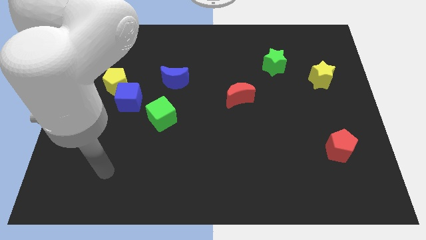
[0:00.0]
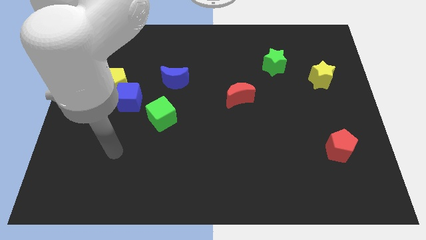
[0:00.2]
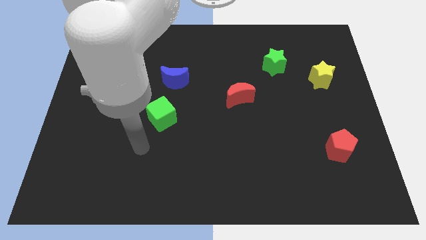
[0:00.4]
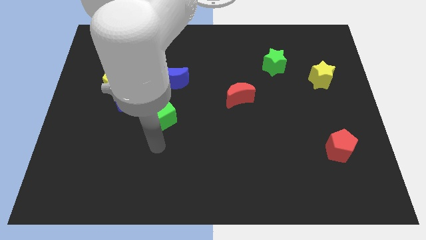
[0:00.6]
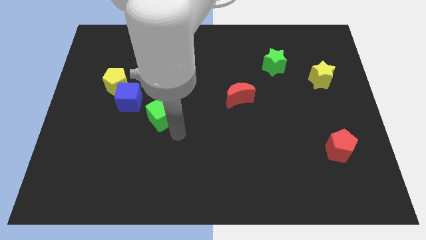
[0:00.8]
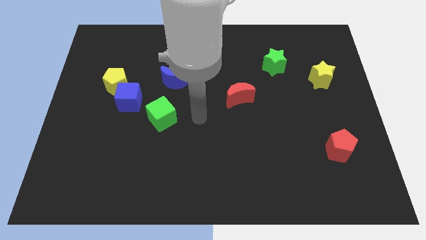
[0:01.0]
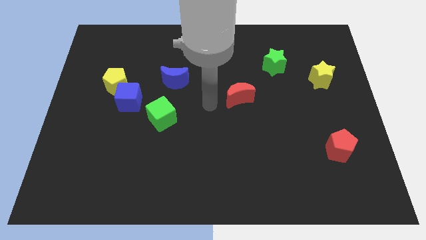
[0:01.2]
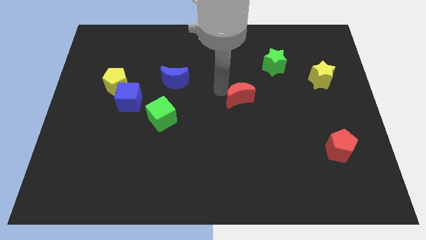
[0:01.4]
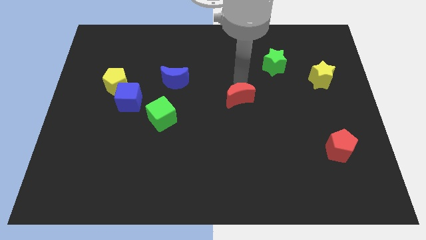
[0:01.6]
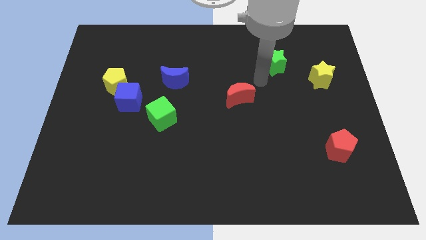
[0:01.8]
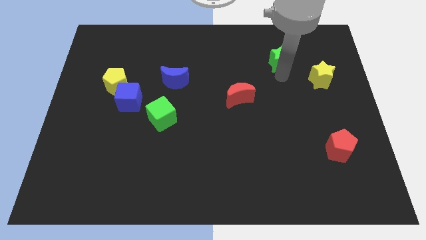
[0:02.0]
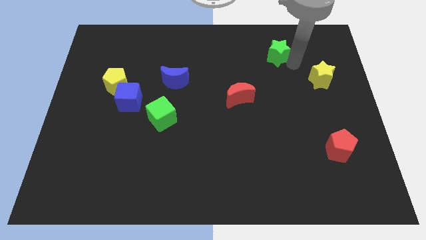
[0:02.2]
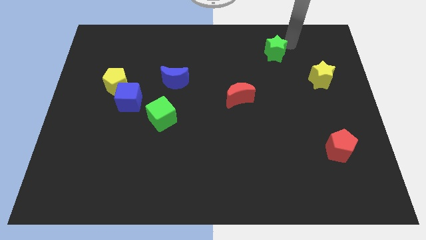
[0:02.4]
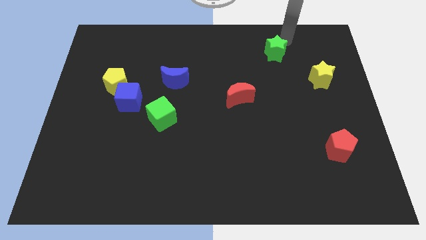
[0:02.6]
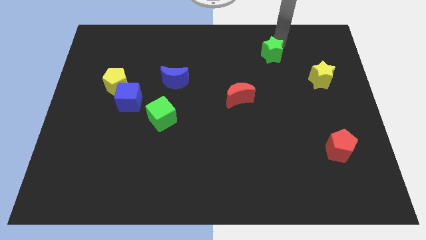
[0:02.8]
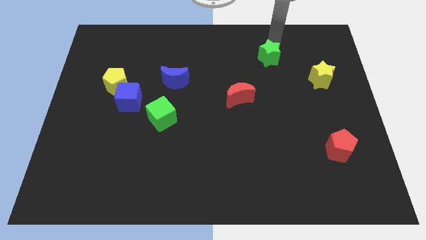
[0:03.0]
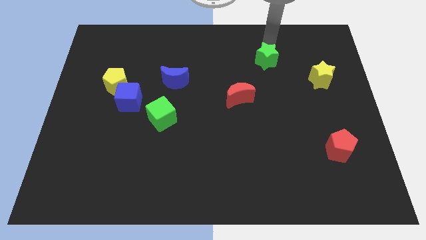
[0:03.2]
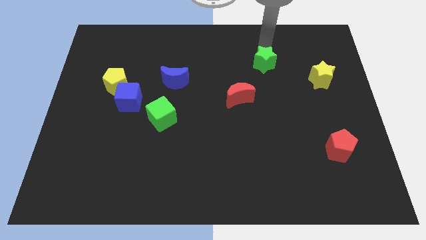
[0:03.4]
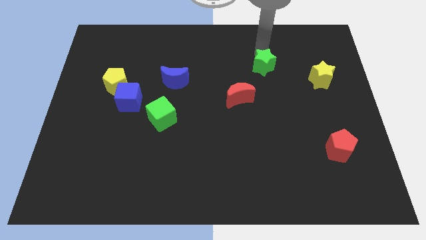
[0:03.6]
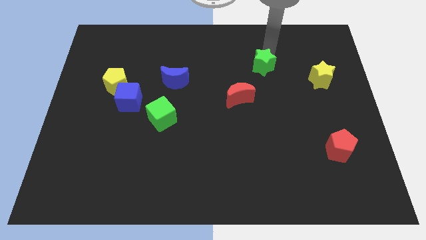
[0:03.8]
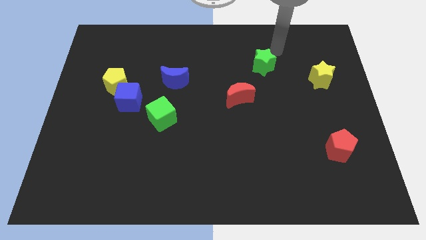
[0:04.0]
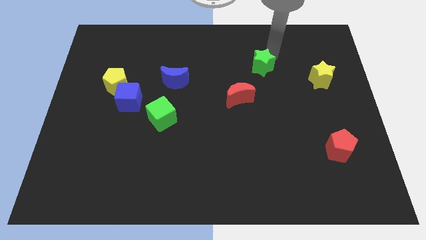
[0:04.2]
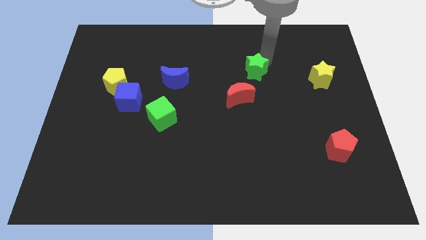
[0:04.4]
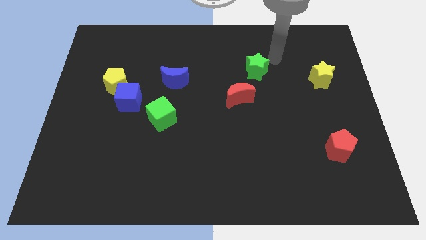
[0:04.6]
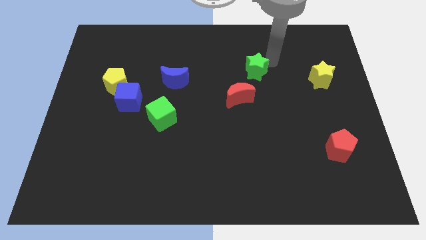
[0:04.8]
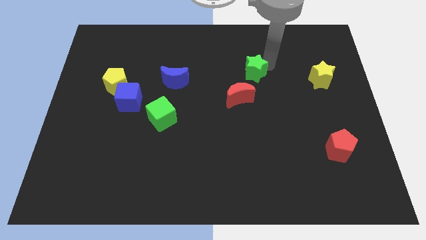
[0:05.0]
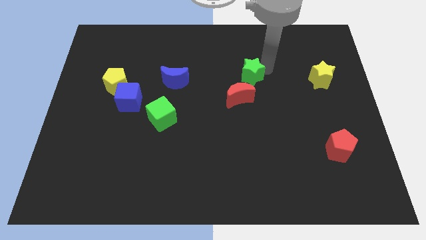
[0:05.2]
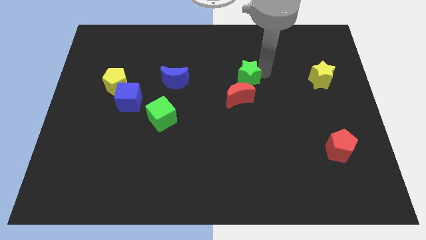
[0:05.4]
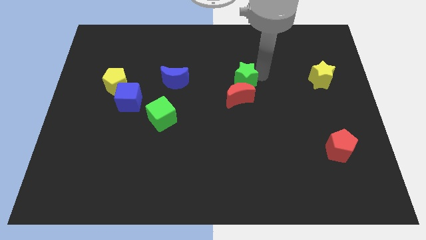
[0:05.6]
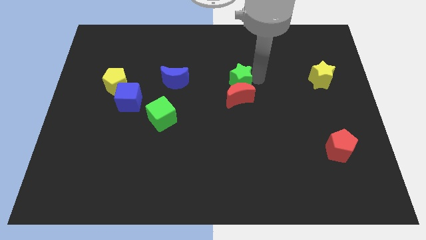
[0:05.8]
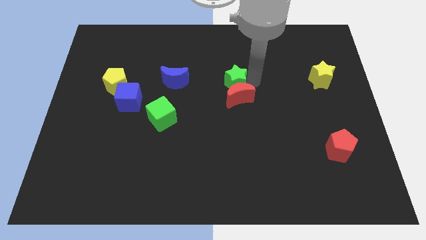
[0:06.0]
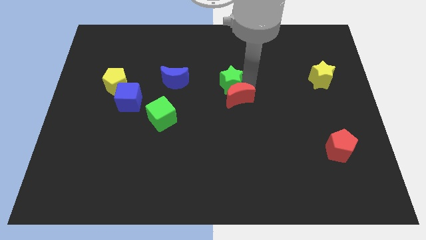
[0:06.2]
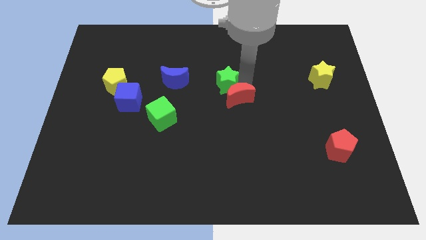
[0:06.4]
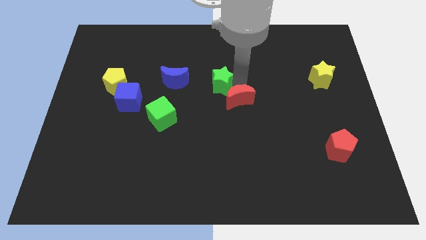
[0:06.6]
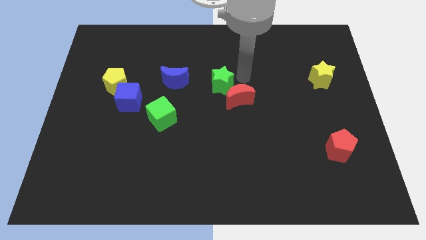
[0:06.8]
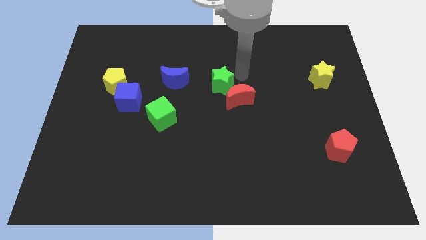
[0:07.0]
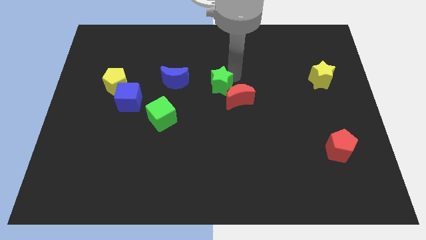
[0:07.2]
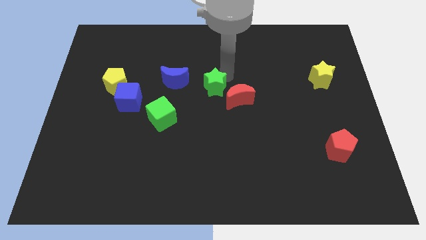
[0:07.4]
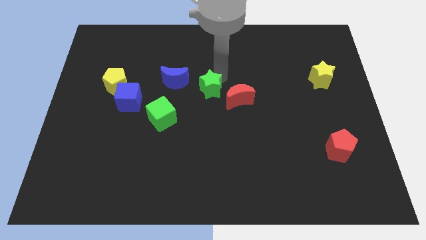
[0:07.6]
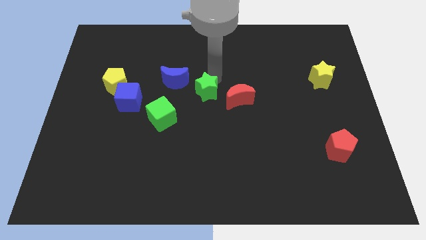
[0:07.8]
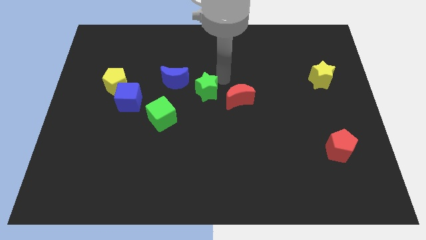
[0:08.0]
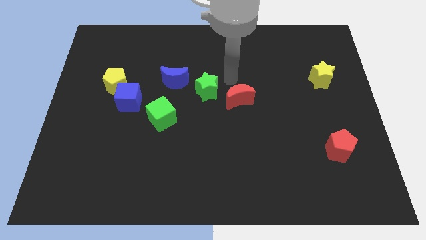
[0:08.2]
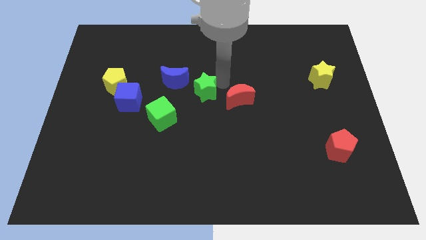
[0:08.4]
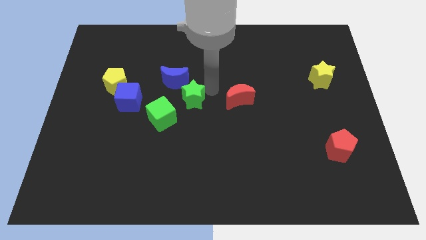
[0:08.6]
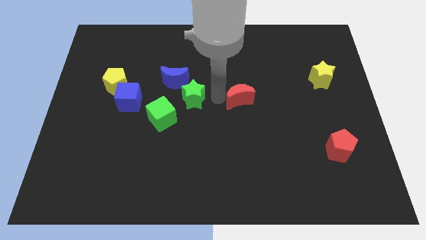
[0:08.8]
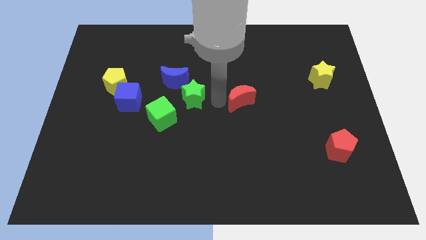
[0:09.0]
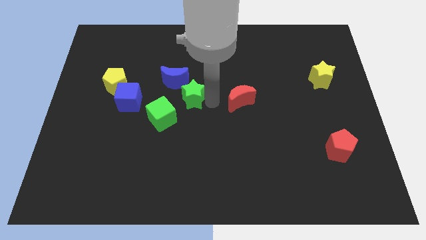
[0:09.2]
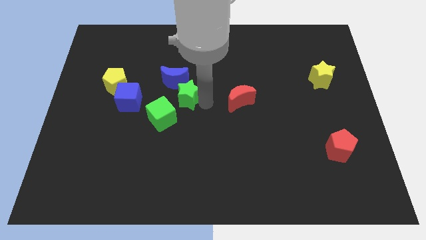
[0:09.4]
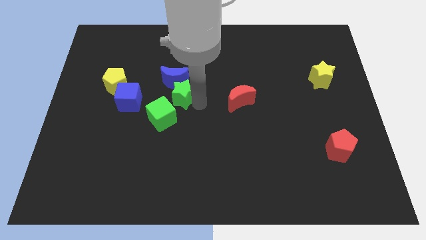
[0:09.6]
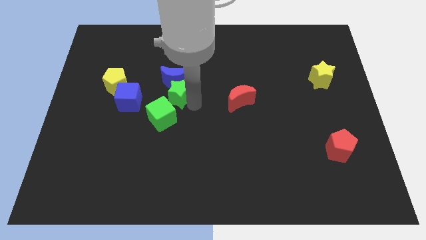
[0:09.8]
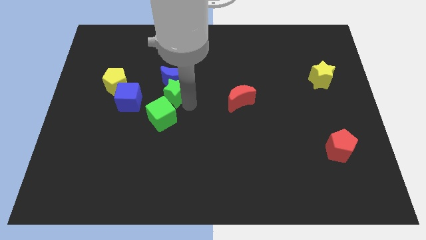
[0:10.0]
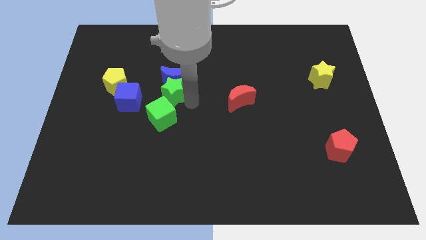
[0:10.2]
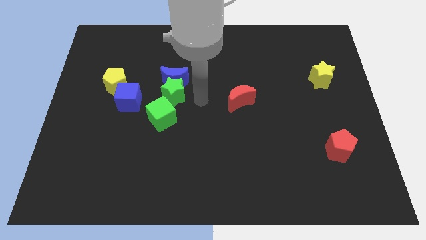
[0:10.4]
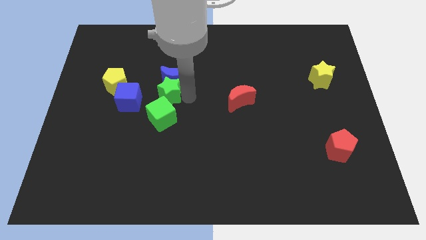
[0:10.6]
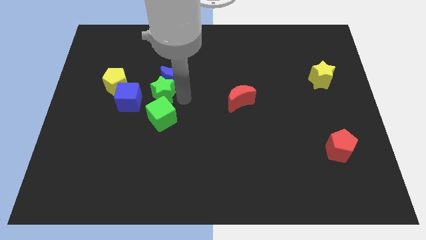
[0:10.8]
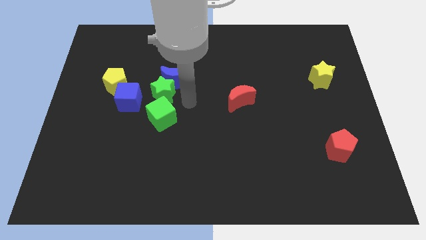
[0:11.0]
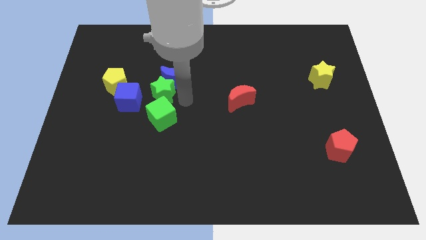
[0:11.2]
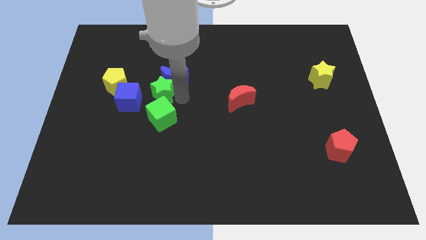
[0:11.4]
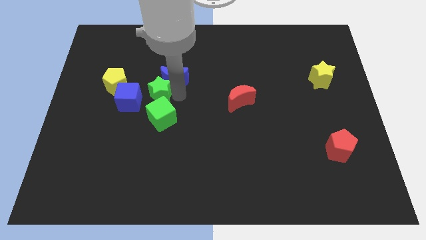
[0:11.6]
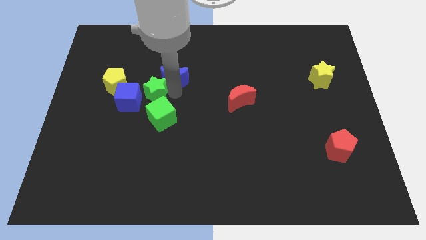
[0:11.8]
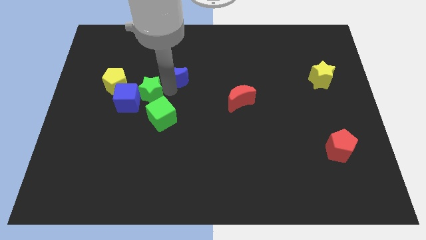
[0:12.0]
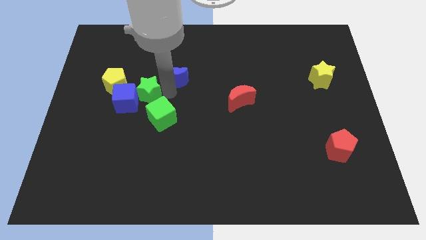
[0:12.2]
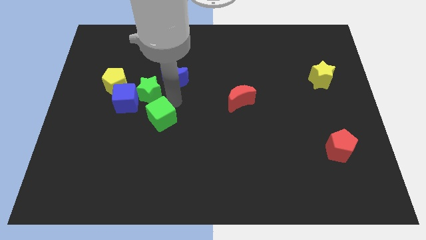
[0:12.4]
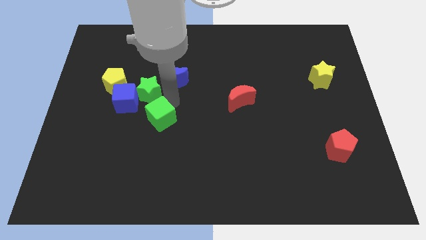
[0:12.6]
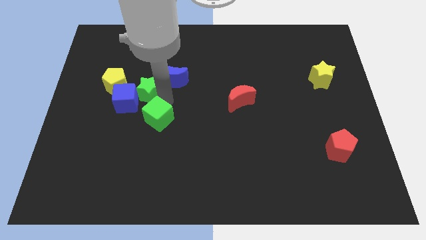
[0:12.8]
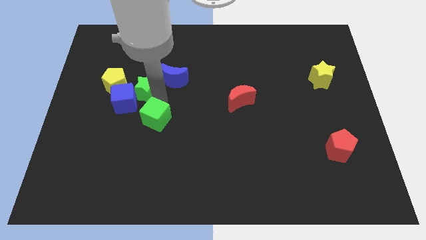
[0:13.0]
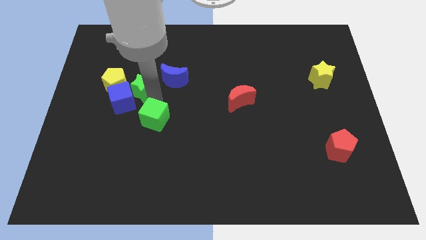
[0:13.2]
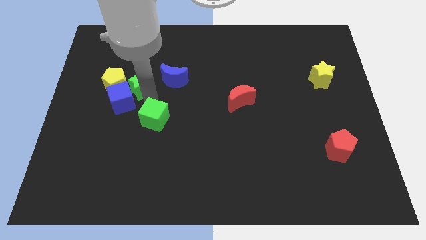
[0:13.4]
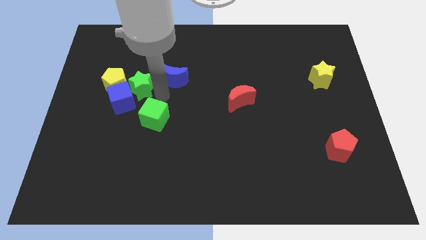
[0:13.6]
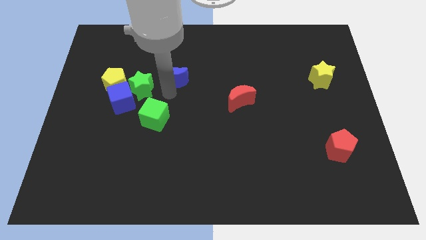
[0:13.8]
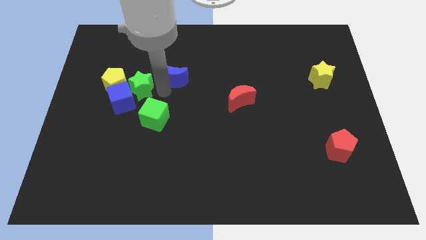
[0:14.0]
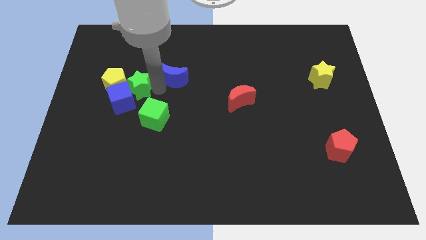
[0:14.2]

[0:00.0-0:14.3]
move the green star to the yellow pentagon

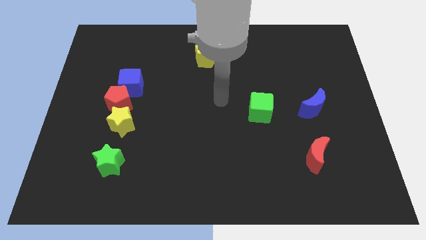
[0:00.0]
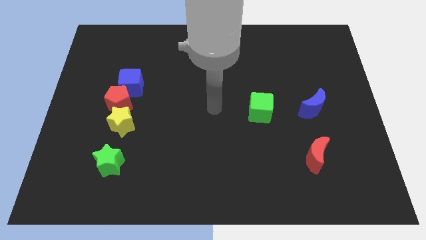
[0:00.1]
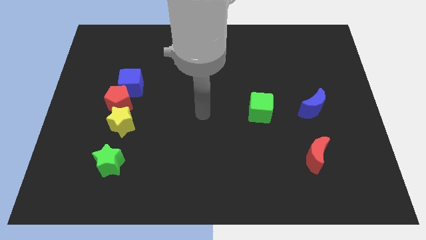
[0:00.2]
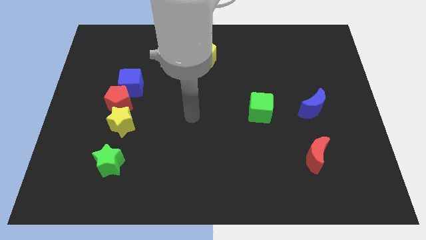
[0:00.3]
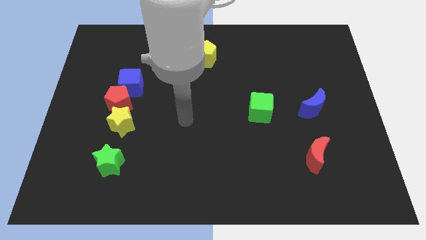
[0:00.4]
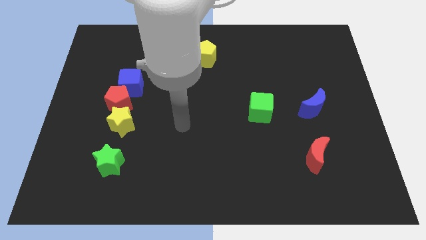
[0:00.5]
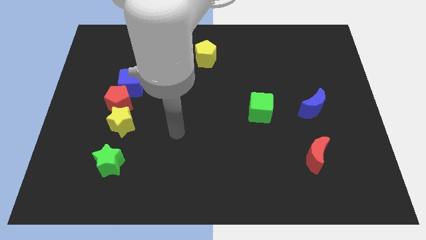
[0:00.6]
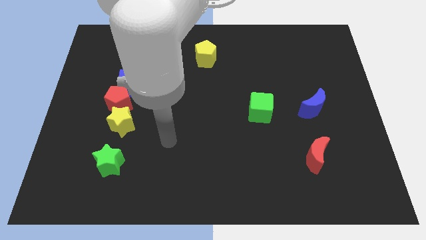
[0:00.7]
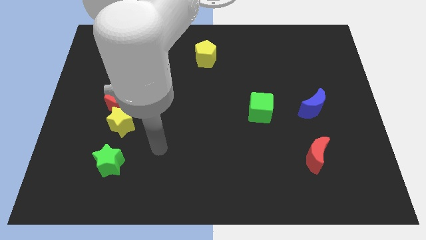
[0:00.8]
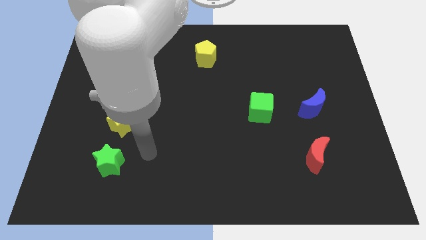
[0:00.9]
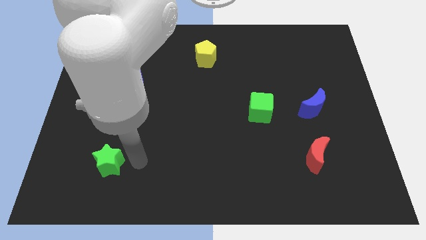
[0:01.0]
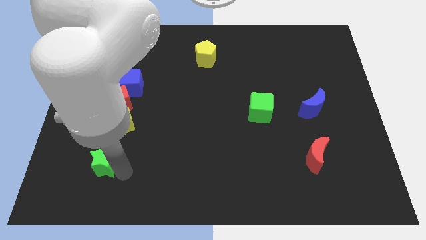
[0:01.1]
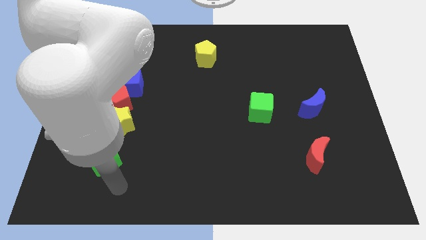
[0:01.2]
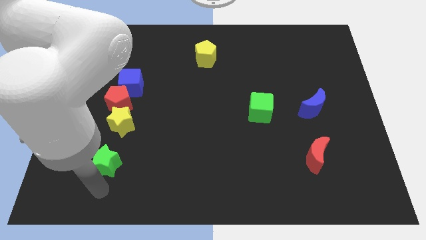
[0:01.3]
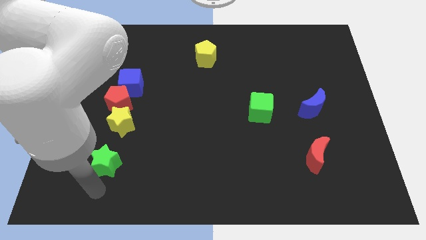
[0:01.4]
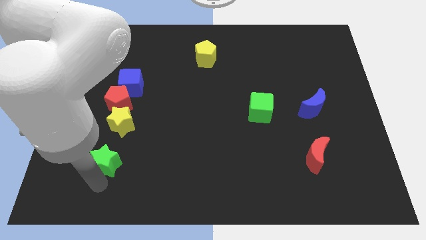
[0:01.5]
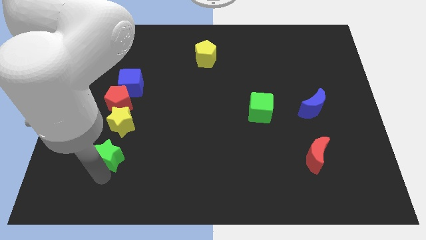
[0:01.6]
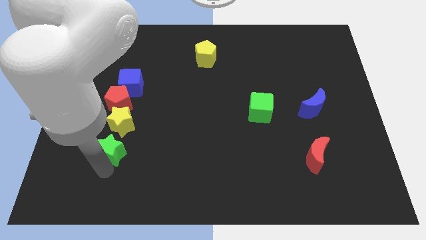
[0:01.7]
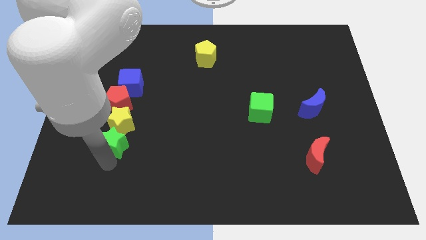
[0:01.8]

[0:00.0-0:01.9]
move the green star towards the yellow star
